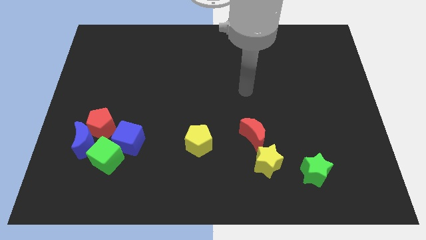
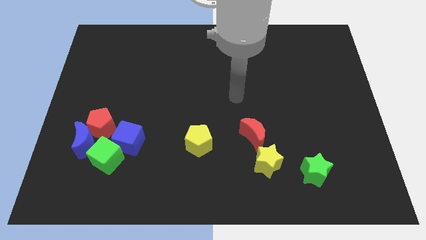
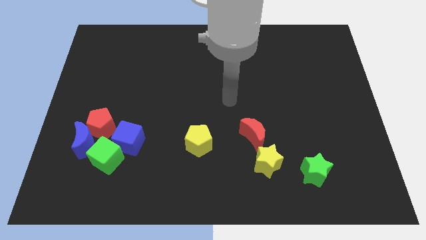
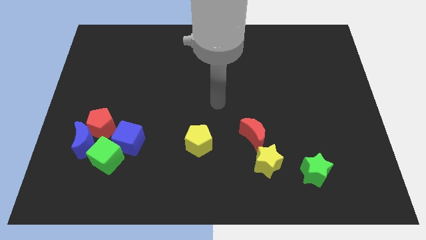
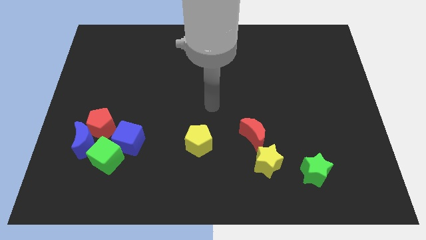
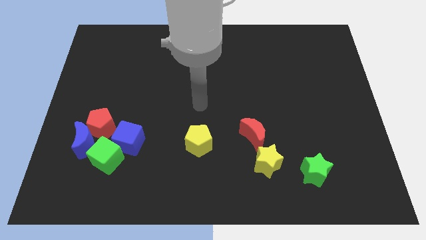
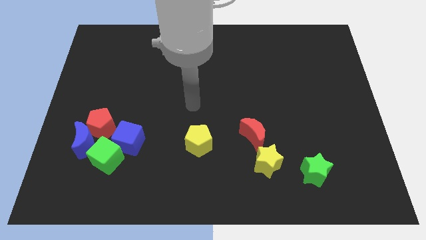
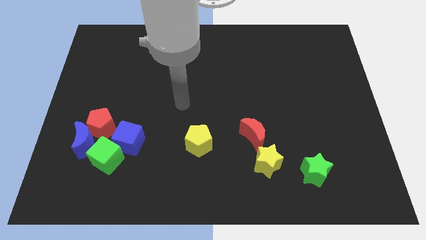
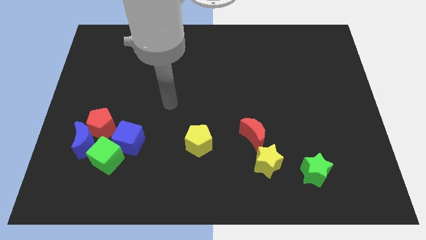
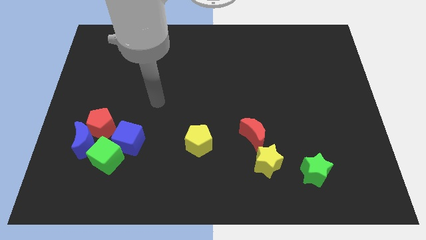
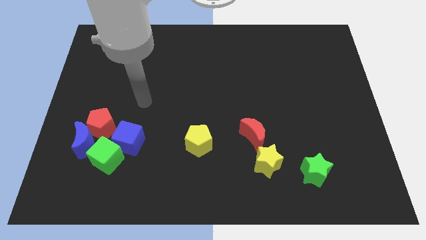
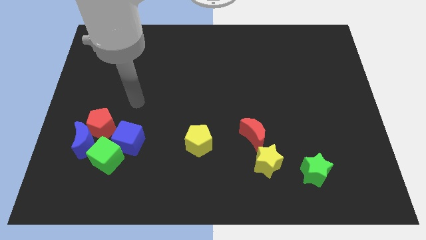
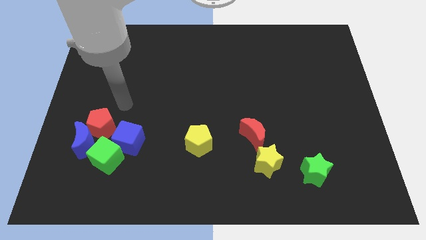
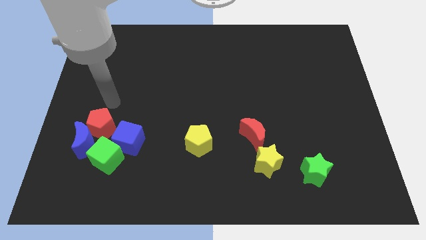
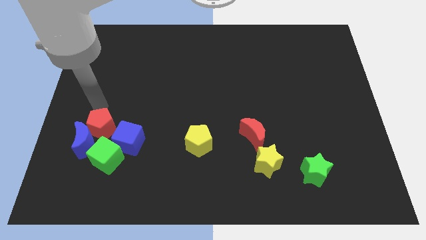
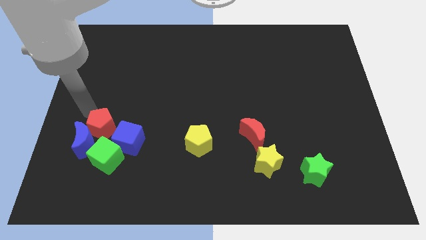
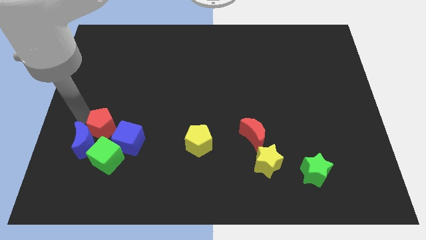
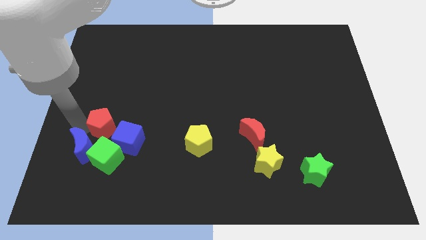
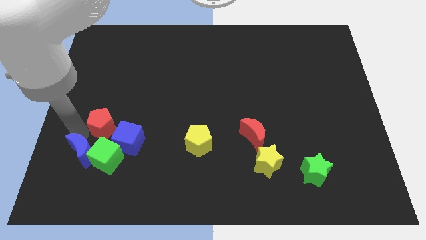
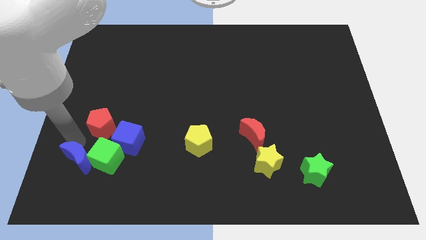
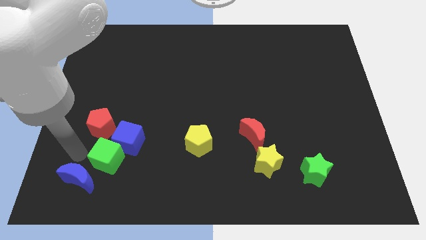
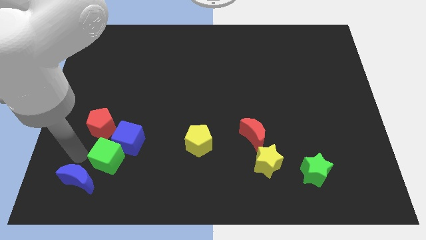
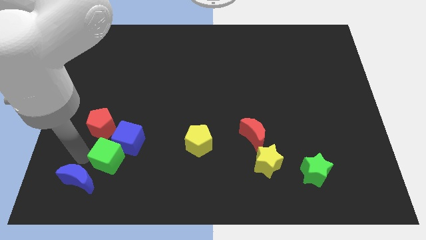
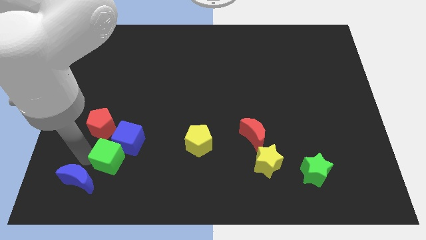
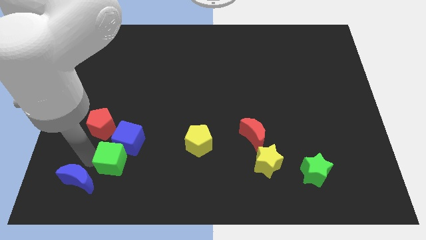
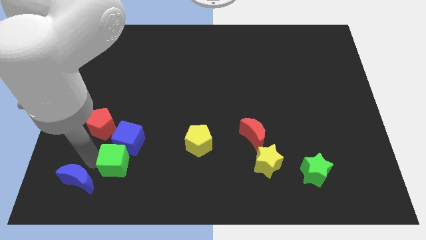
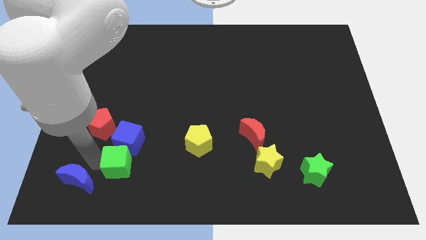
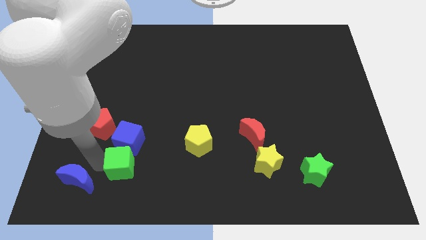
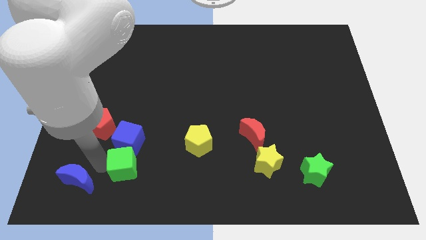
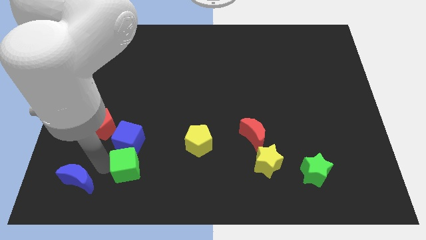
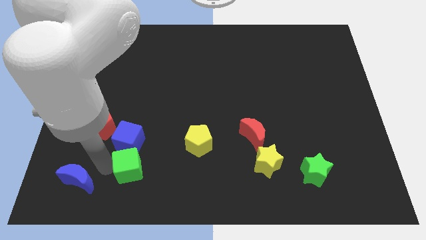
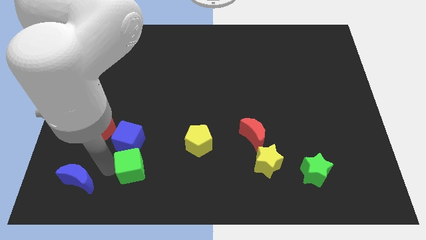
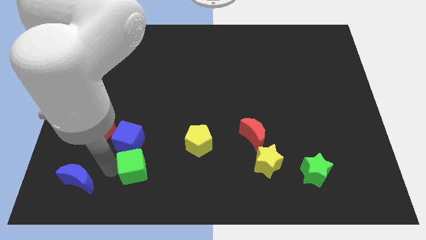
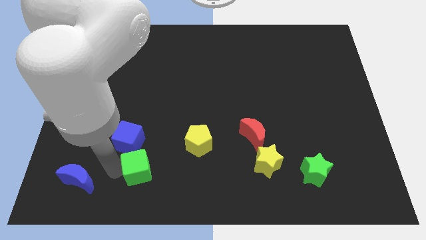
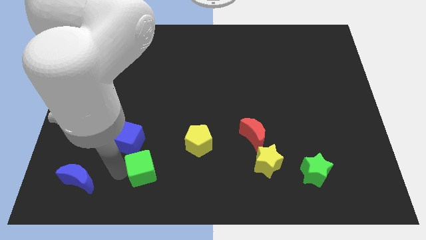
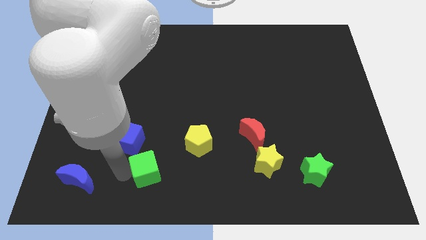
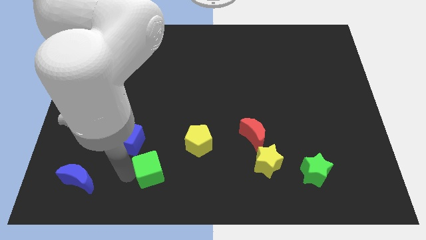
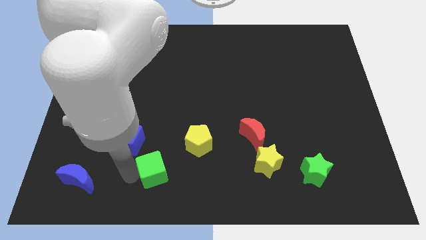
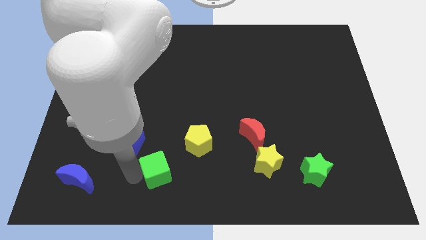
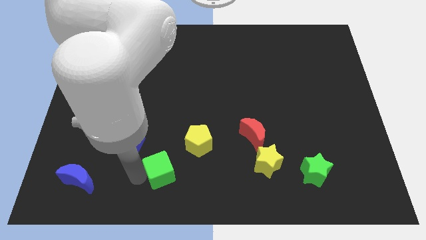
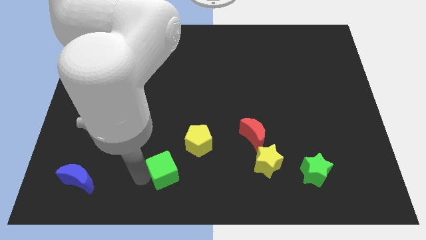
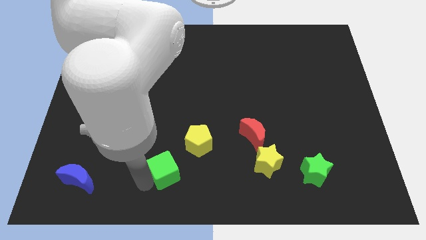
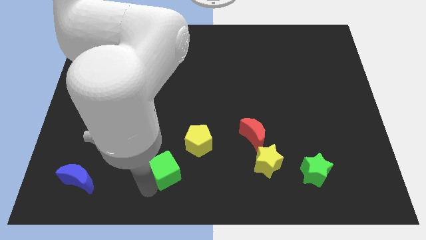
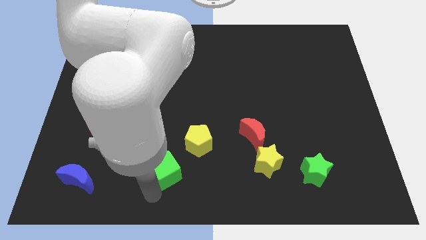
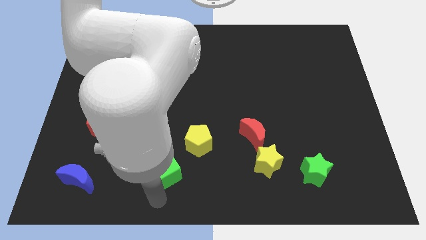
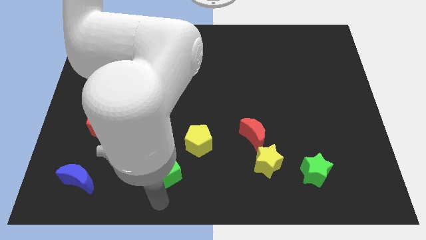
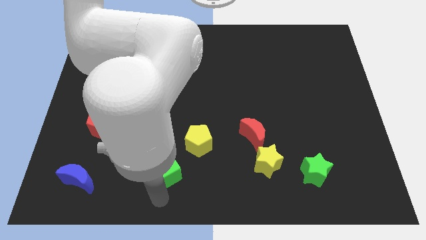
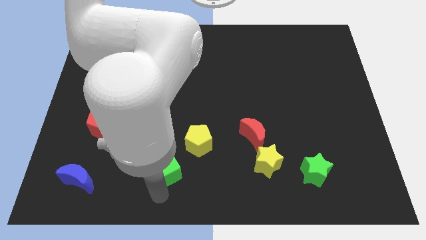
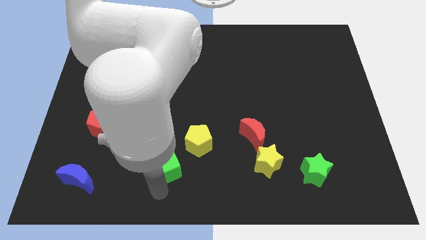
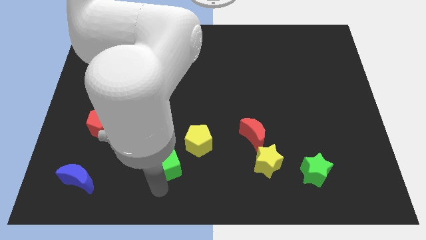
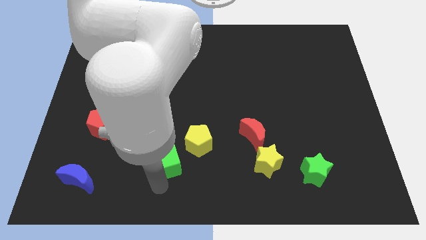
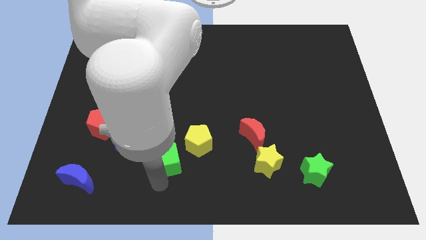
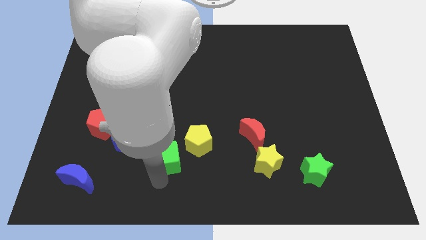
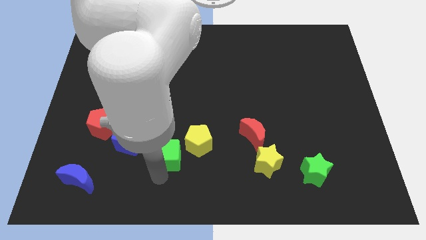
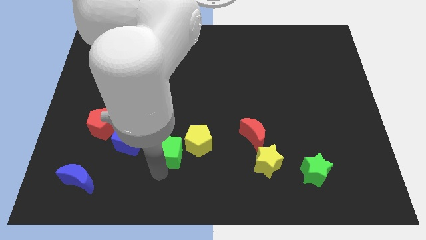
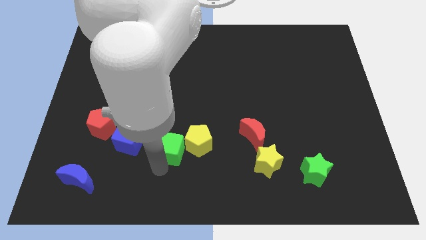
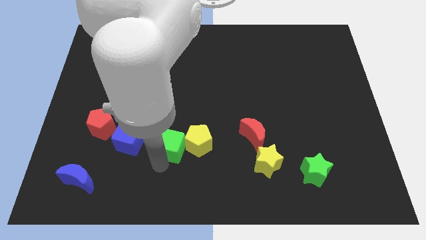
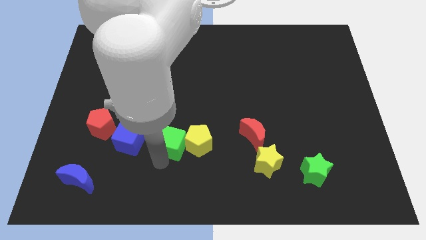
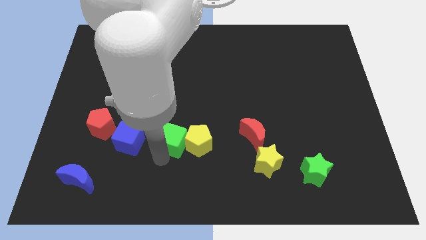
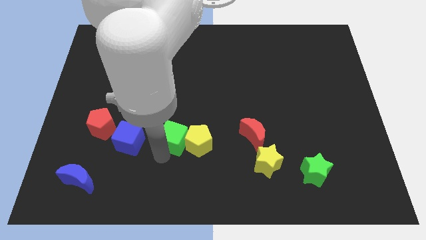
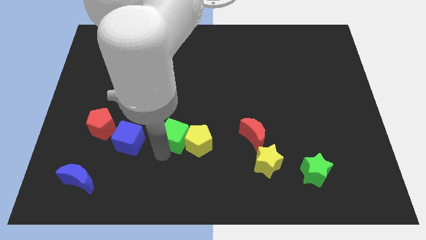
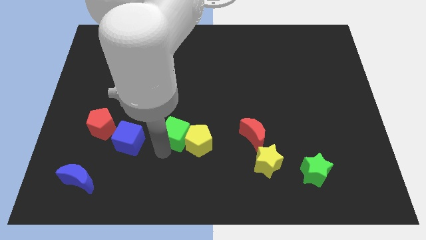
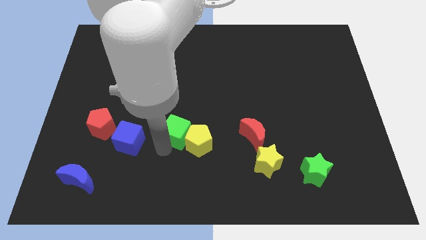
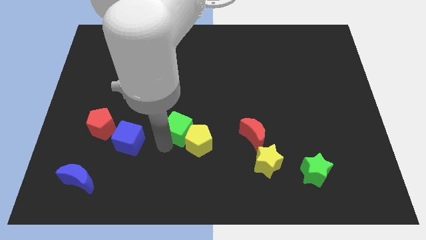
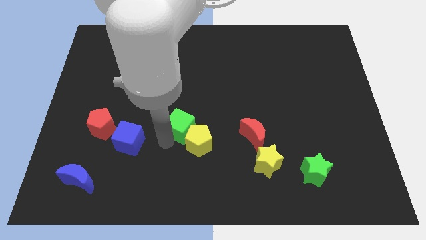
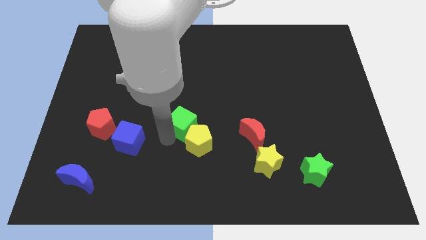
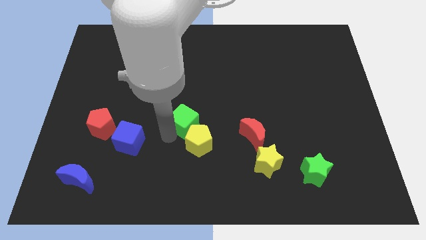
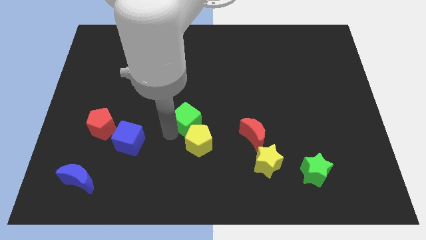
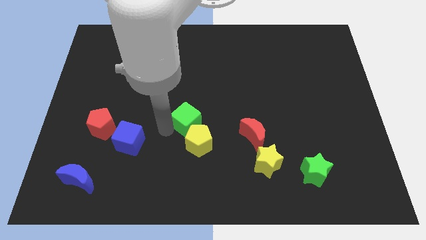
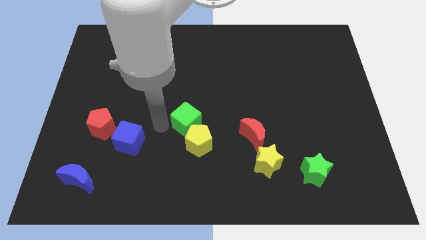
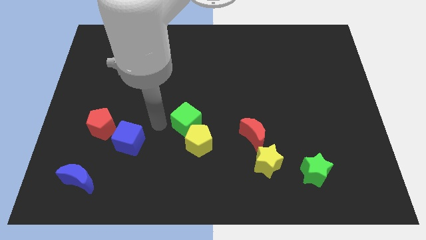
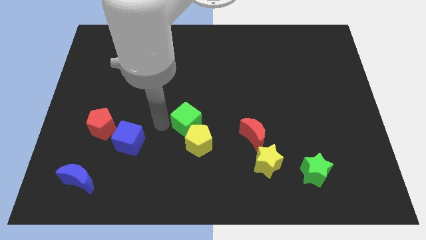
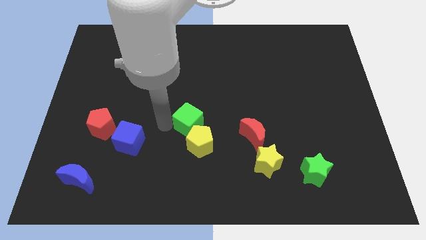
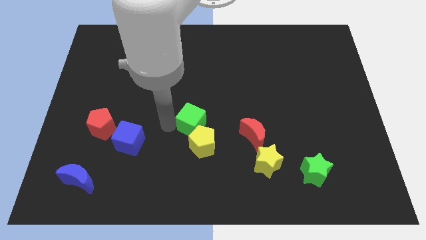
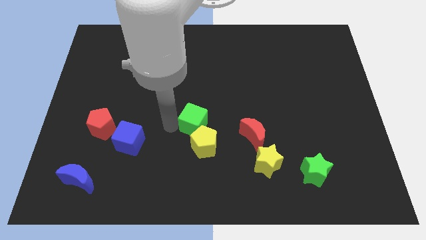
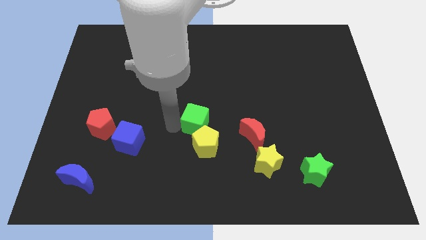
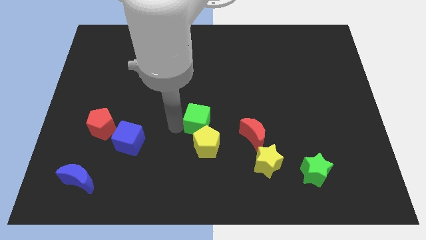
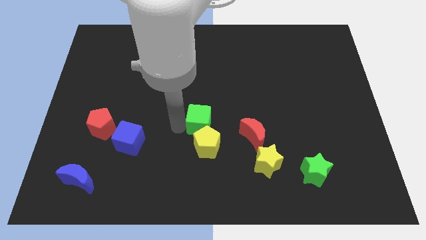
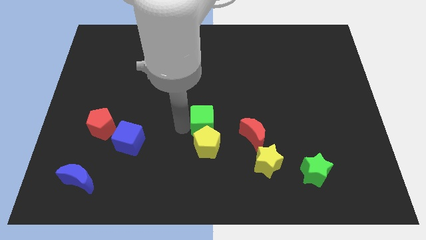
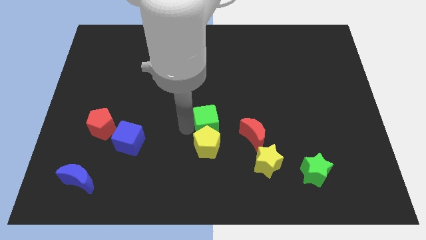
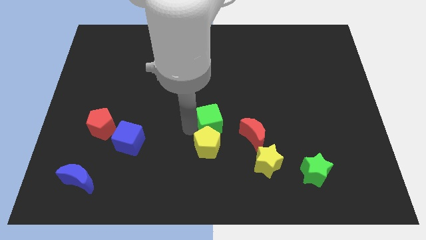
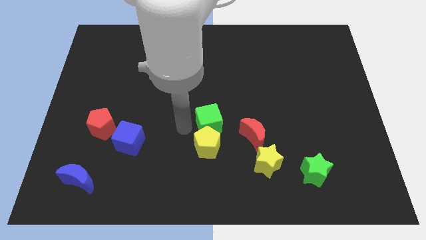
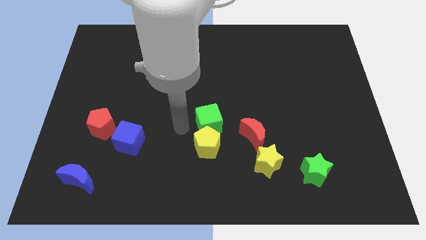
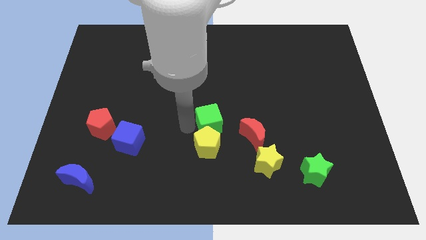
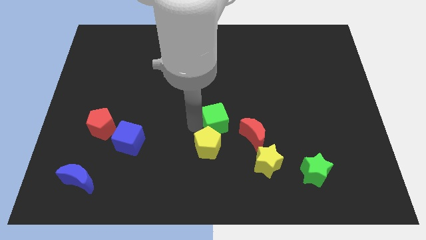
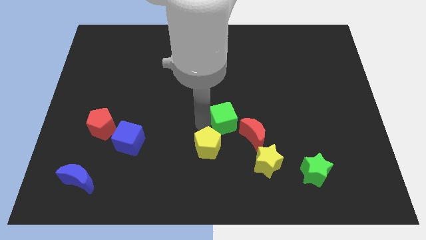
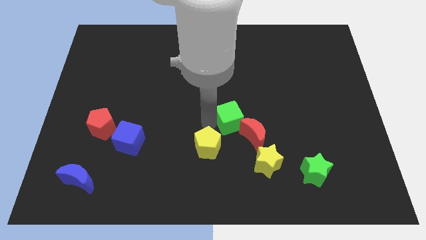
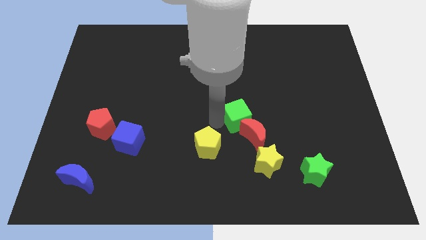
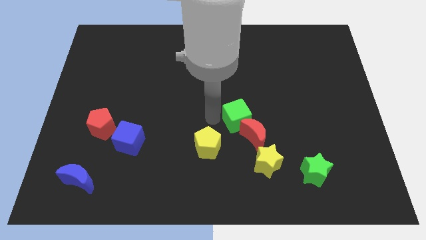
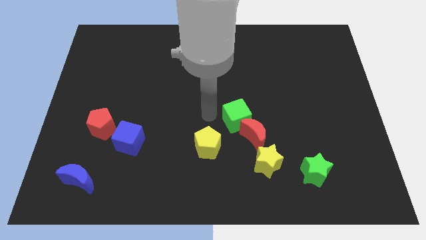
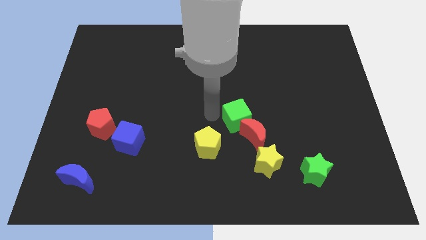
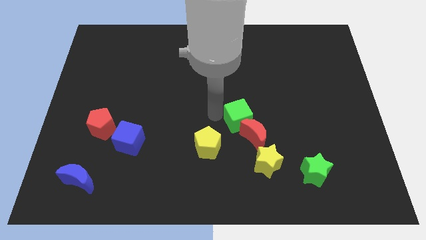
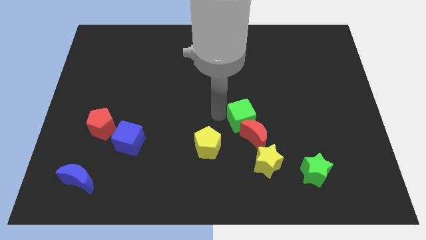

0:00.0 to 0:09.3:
put the green cube above the yellow star
